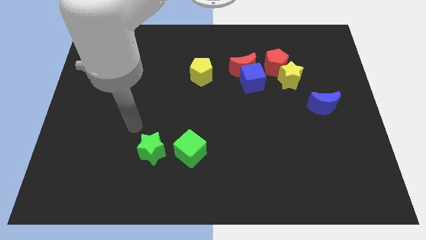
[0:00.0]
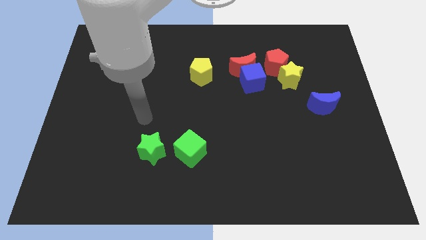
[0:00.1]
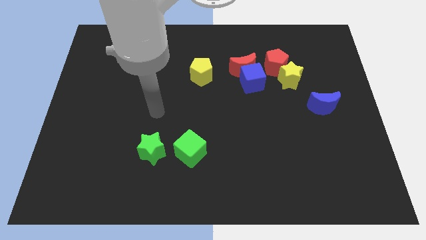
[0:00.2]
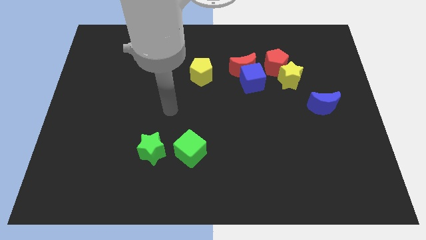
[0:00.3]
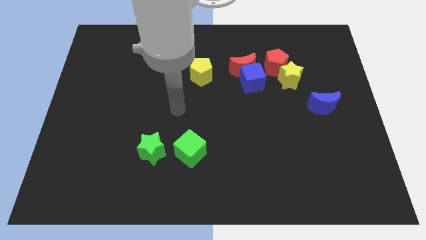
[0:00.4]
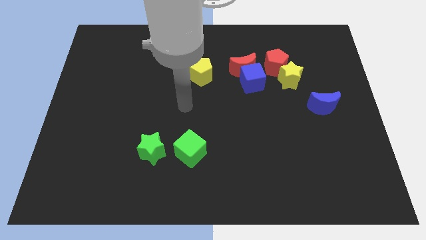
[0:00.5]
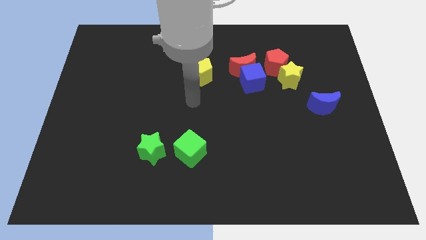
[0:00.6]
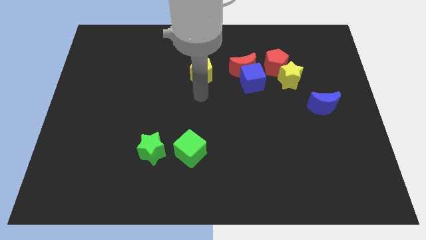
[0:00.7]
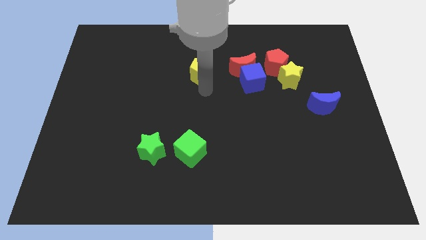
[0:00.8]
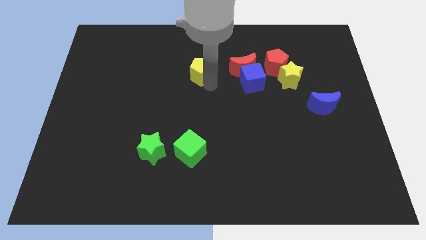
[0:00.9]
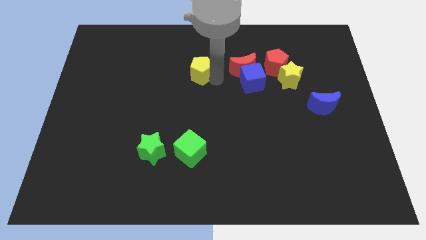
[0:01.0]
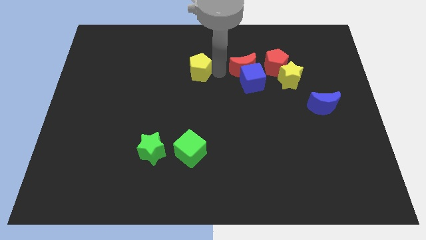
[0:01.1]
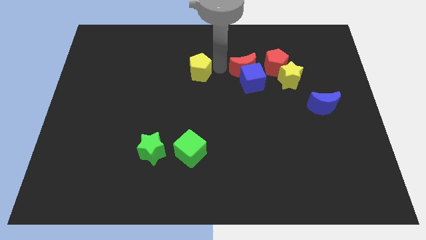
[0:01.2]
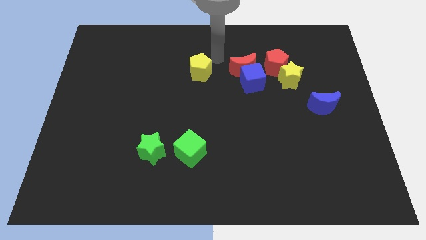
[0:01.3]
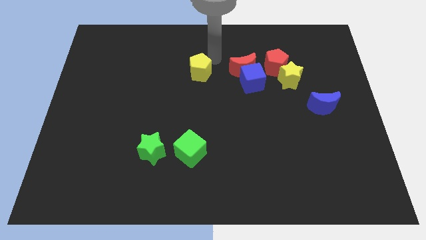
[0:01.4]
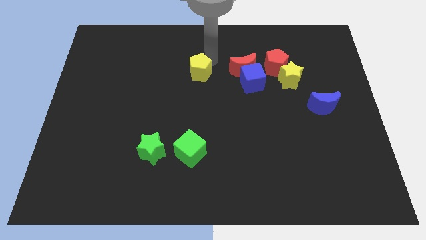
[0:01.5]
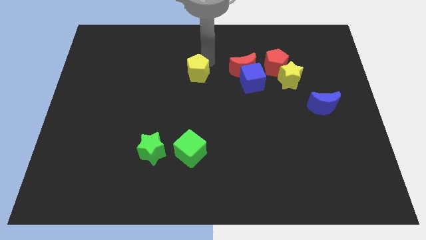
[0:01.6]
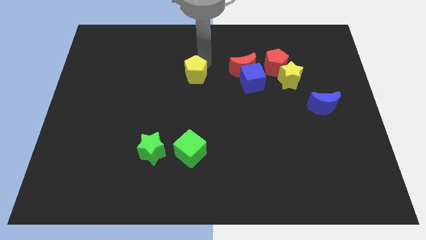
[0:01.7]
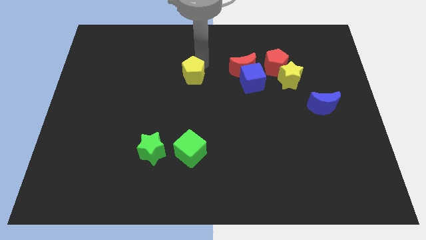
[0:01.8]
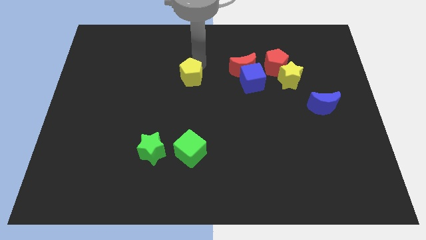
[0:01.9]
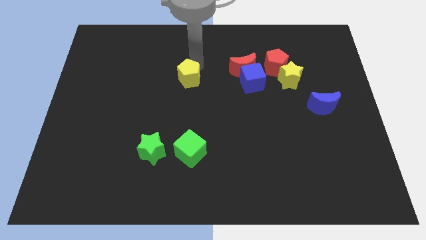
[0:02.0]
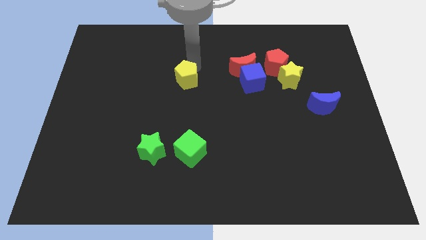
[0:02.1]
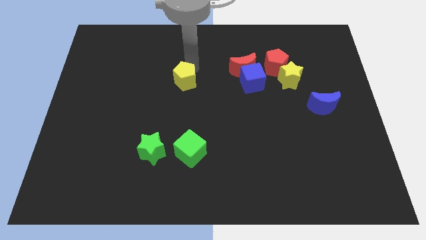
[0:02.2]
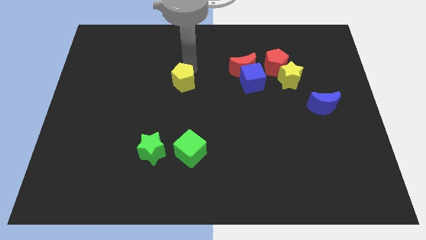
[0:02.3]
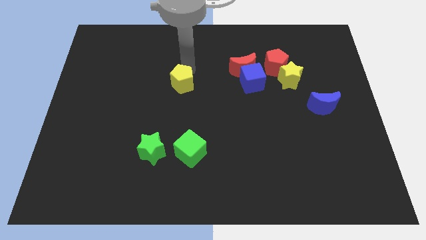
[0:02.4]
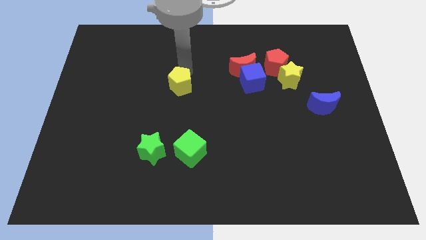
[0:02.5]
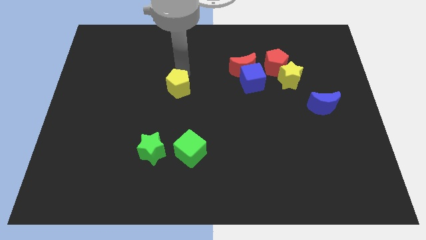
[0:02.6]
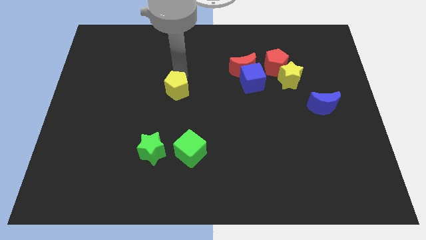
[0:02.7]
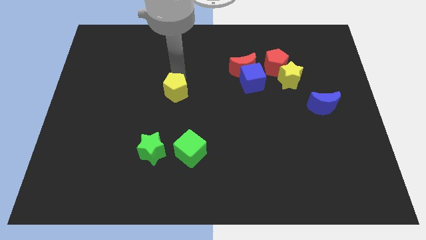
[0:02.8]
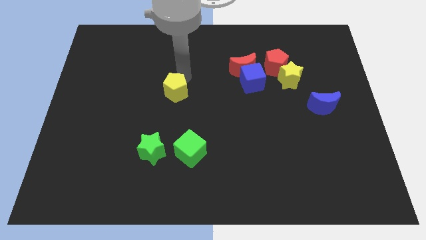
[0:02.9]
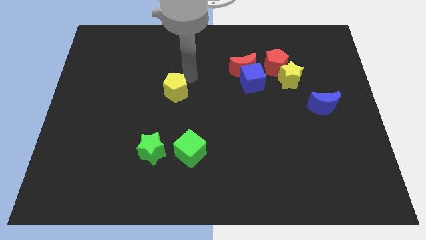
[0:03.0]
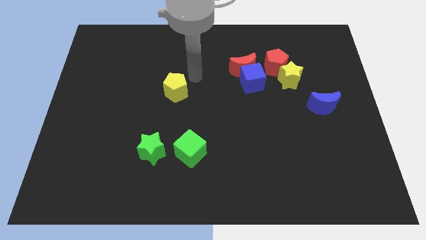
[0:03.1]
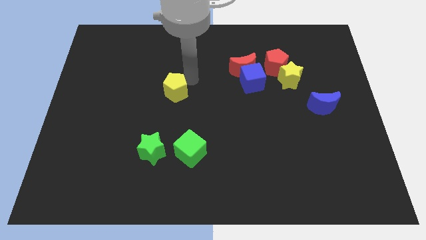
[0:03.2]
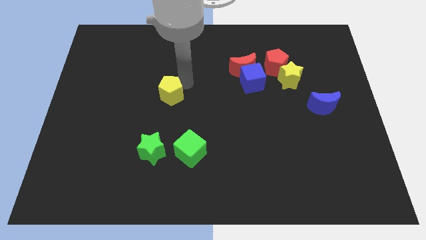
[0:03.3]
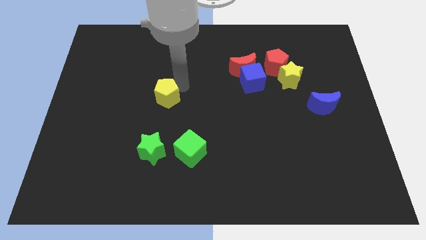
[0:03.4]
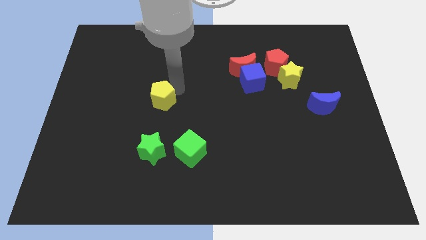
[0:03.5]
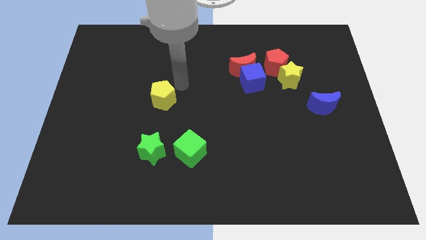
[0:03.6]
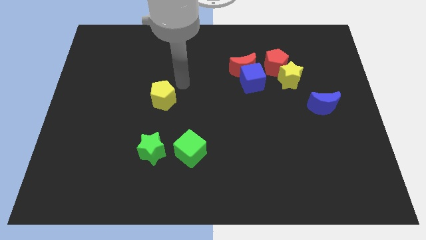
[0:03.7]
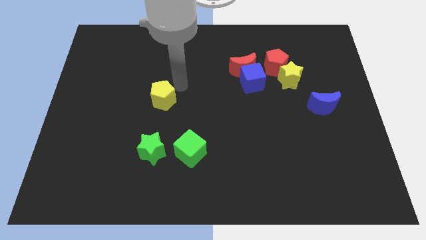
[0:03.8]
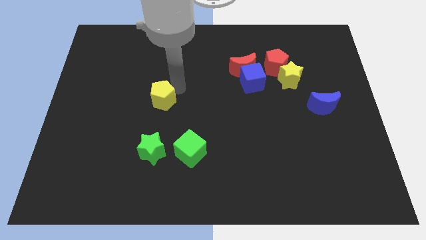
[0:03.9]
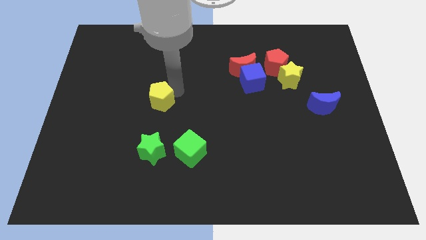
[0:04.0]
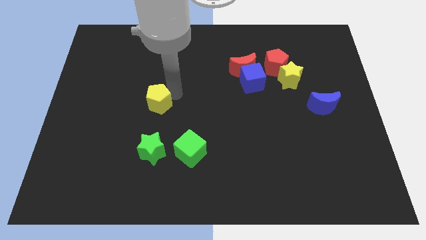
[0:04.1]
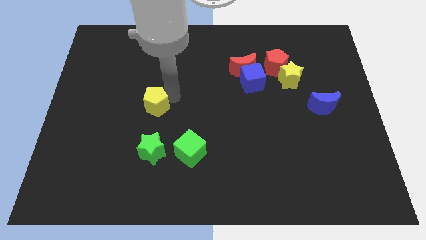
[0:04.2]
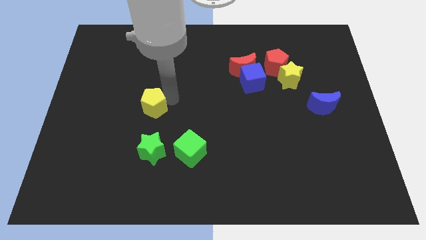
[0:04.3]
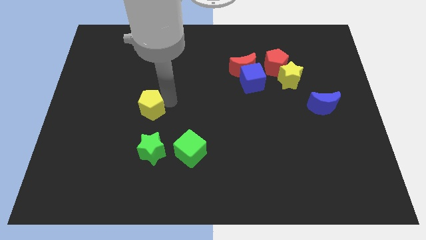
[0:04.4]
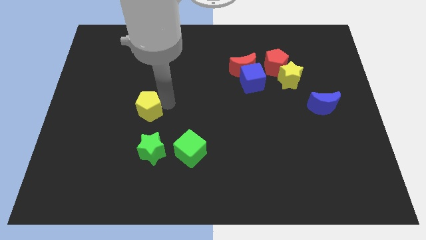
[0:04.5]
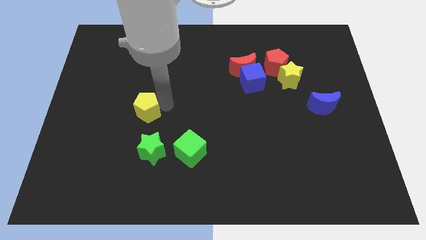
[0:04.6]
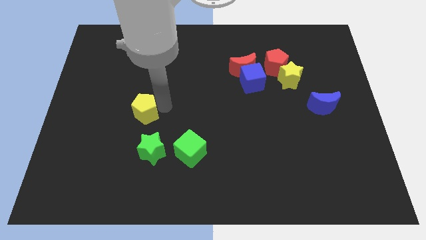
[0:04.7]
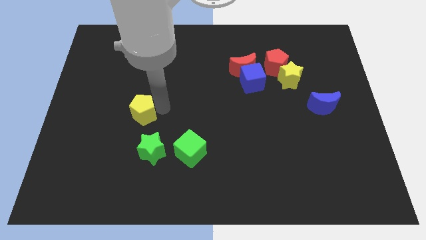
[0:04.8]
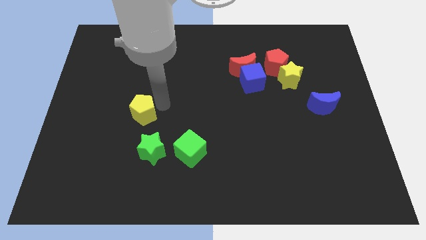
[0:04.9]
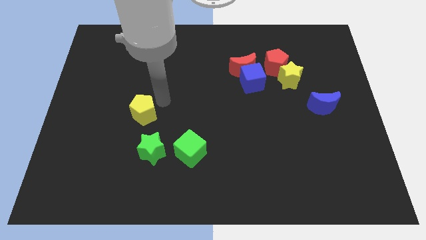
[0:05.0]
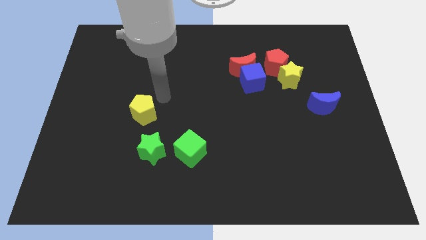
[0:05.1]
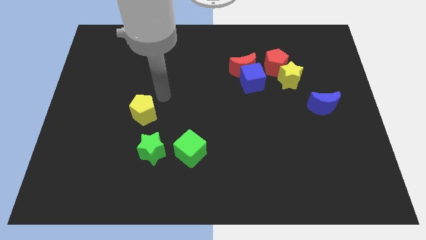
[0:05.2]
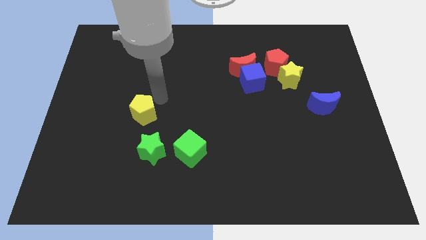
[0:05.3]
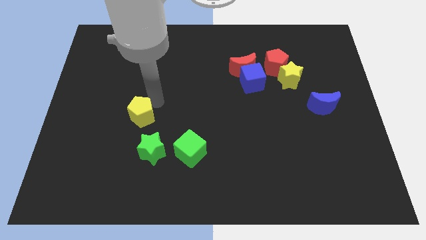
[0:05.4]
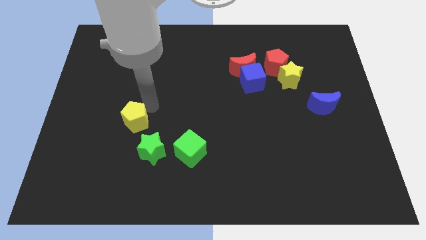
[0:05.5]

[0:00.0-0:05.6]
move the yellow pentagon diagonally downwards and to the left

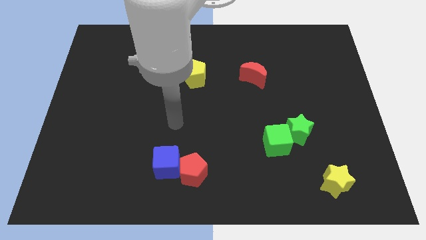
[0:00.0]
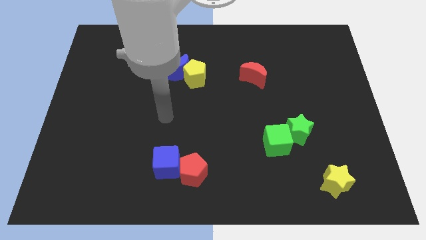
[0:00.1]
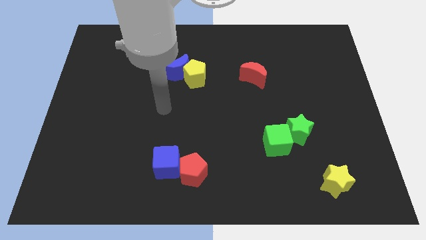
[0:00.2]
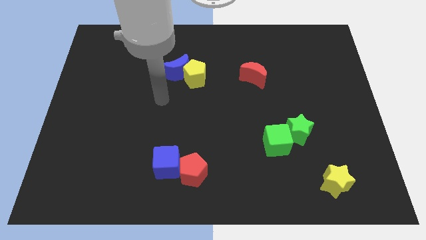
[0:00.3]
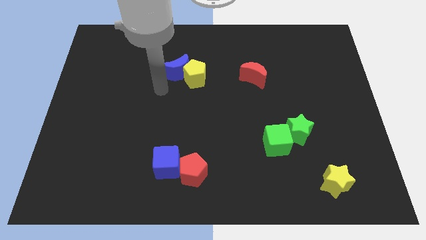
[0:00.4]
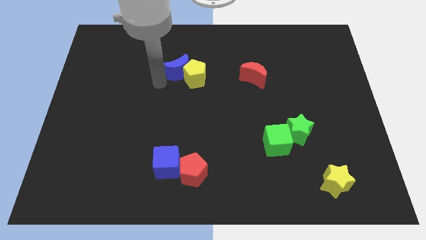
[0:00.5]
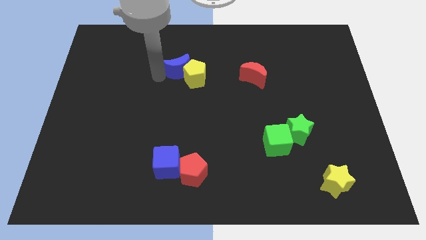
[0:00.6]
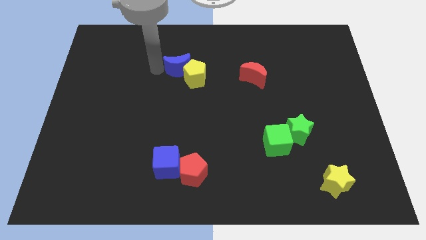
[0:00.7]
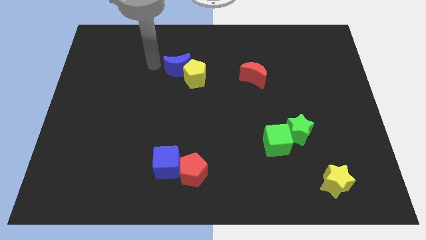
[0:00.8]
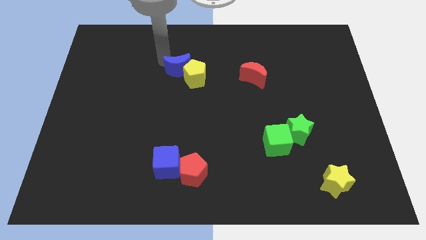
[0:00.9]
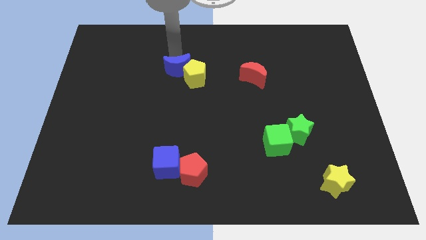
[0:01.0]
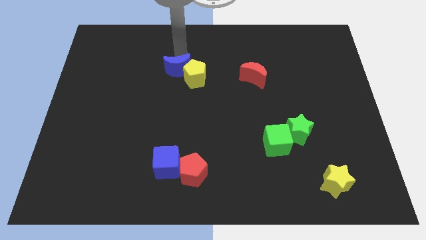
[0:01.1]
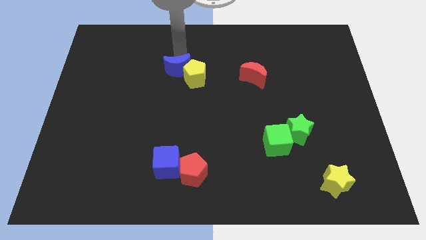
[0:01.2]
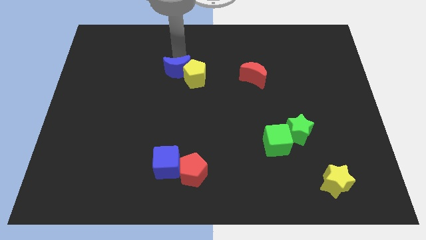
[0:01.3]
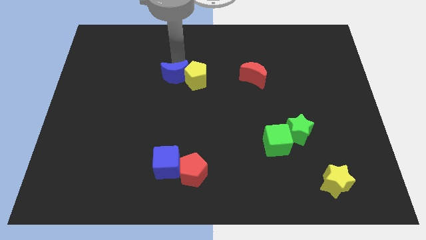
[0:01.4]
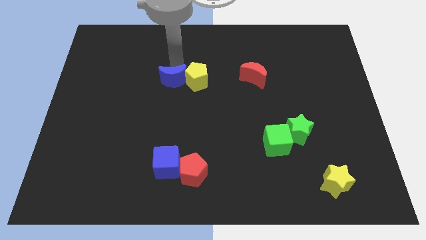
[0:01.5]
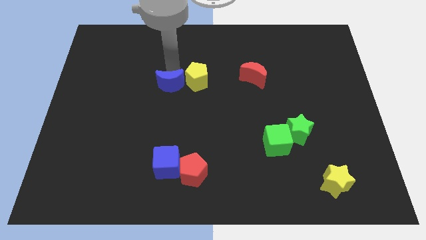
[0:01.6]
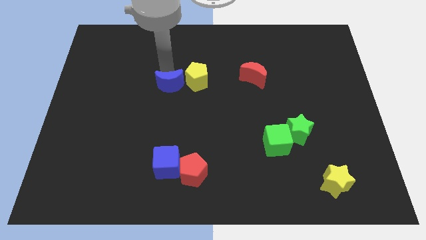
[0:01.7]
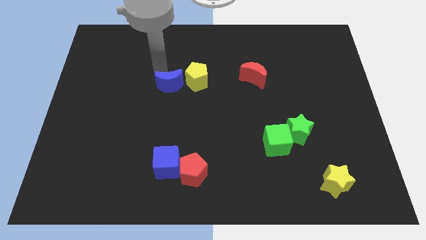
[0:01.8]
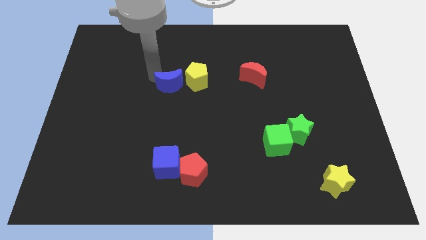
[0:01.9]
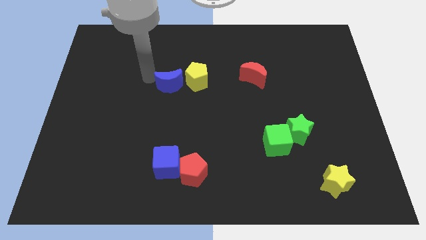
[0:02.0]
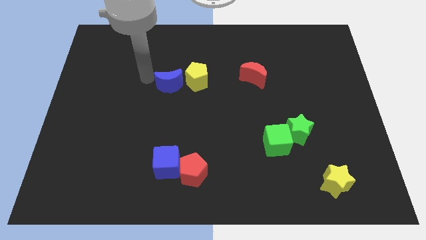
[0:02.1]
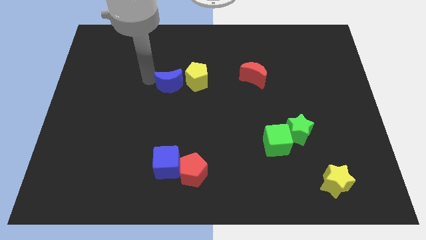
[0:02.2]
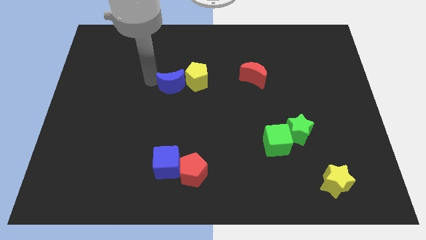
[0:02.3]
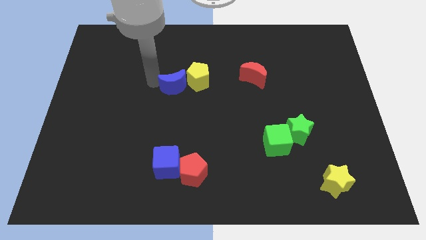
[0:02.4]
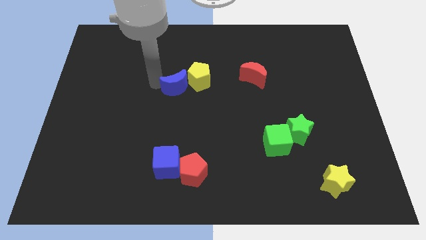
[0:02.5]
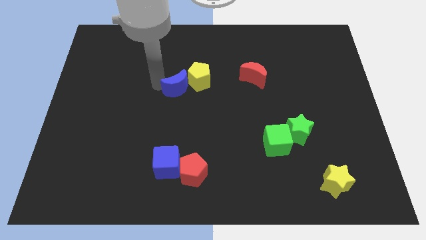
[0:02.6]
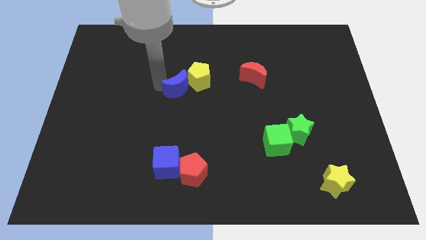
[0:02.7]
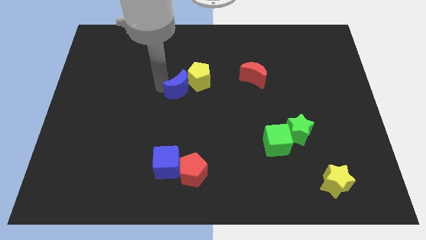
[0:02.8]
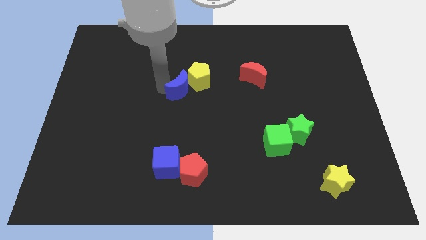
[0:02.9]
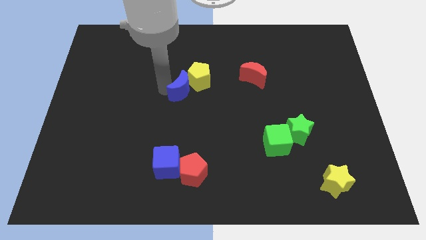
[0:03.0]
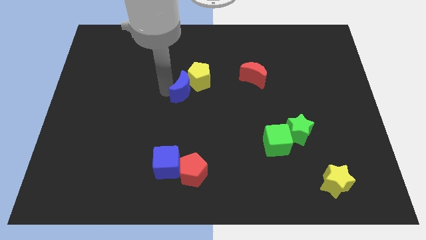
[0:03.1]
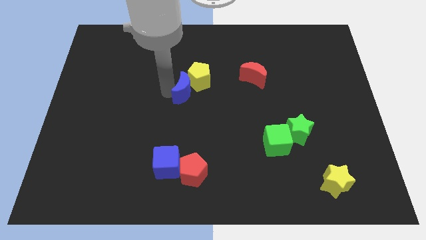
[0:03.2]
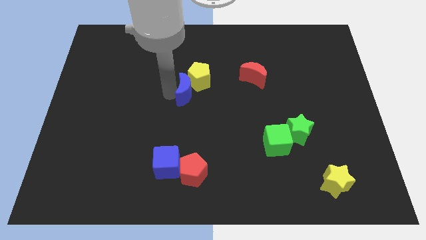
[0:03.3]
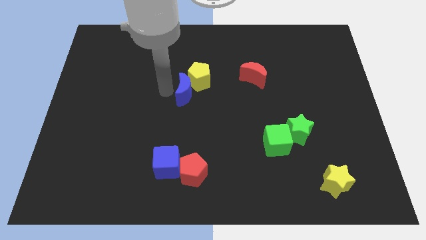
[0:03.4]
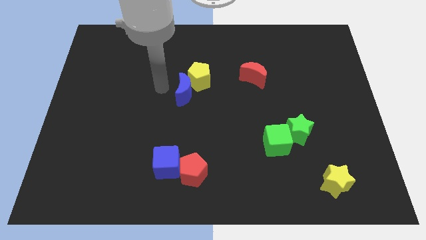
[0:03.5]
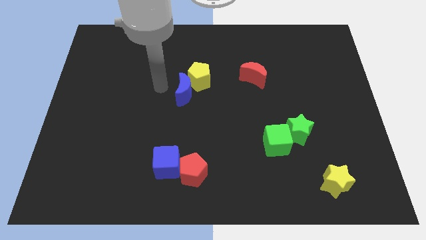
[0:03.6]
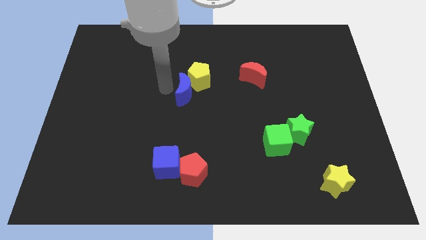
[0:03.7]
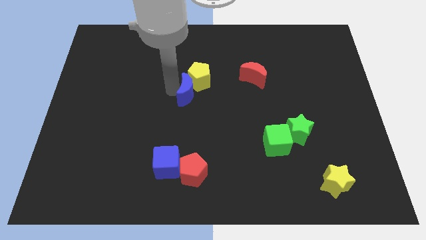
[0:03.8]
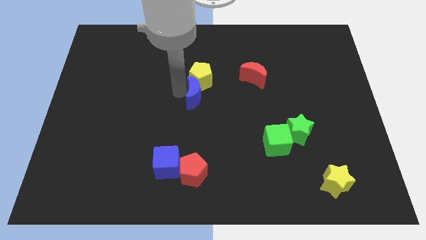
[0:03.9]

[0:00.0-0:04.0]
move the blue moon downwards and to the right diagonally somewhat
